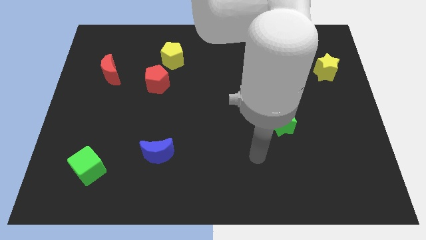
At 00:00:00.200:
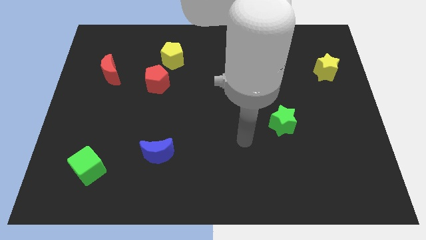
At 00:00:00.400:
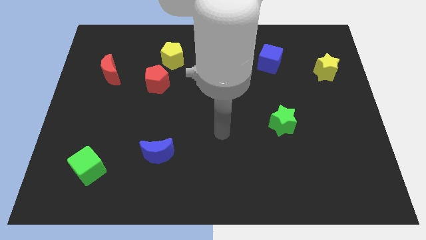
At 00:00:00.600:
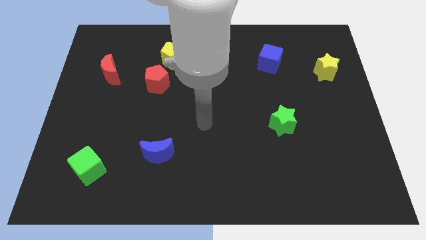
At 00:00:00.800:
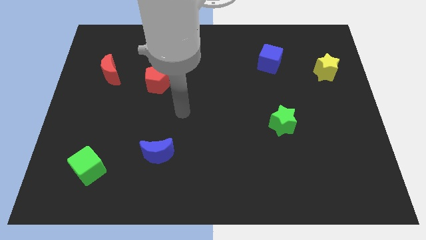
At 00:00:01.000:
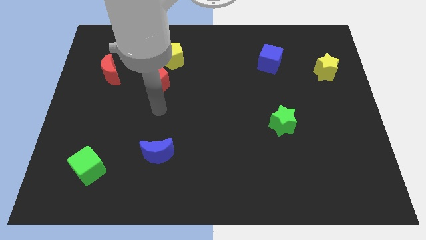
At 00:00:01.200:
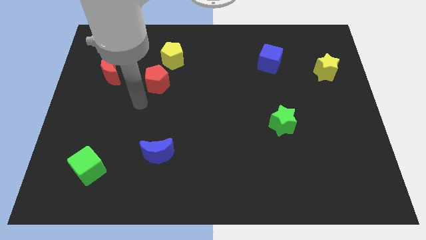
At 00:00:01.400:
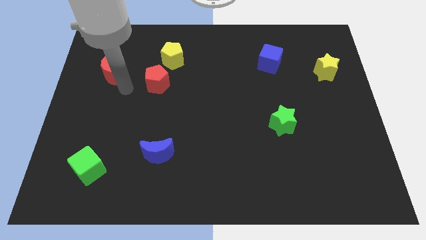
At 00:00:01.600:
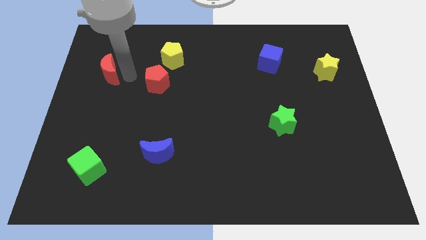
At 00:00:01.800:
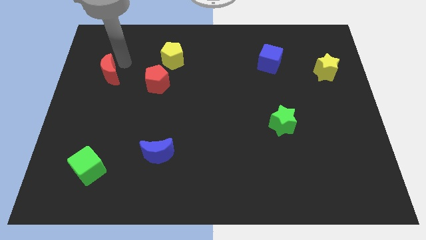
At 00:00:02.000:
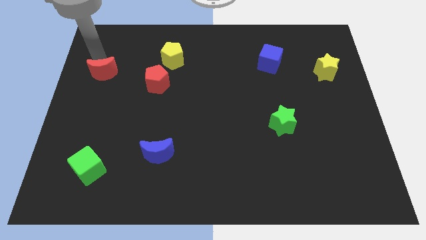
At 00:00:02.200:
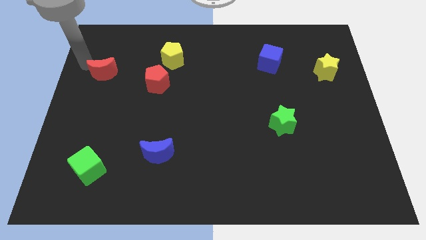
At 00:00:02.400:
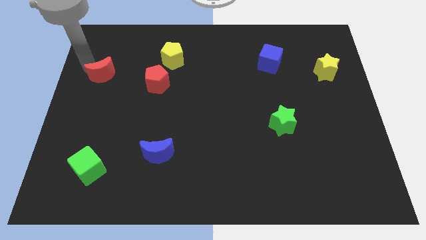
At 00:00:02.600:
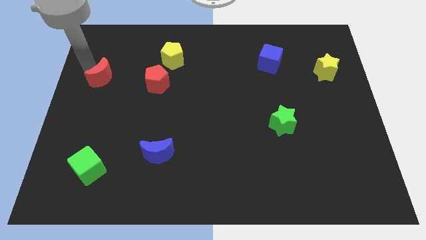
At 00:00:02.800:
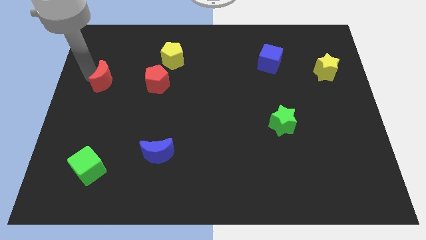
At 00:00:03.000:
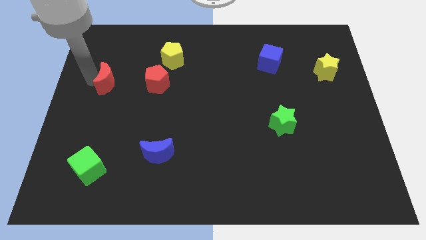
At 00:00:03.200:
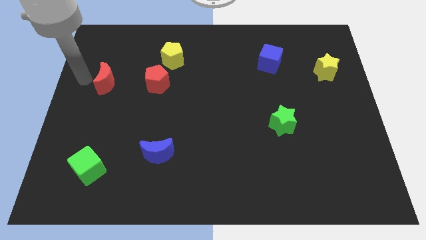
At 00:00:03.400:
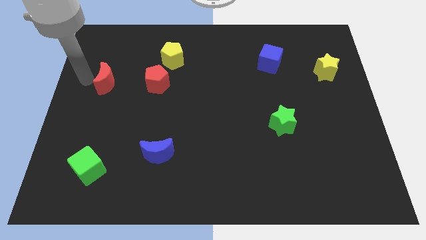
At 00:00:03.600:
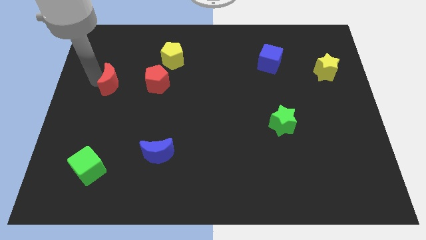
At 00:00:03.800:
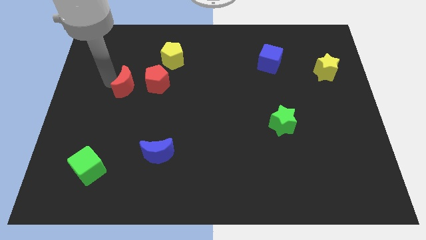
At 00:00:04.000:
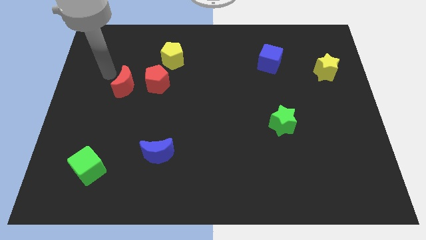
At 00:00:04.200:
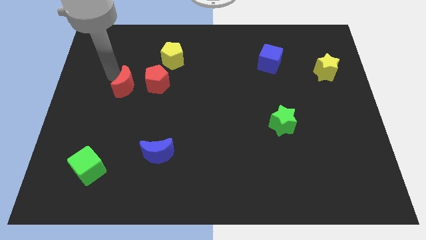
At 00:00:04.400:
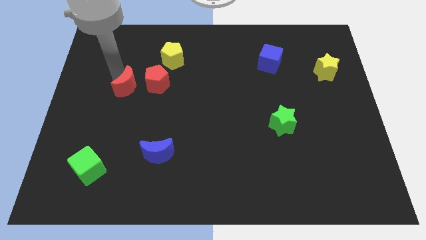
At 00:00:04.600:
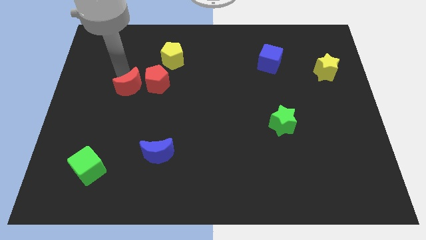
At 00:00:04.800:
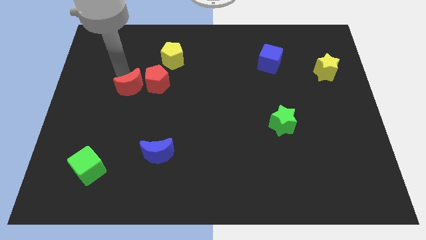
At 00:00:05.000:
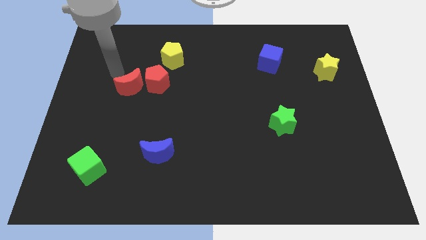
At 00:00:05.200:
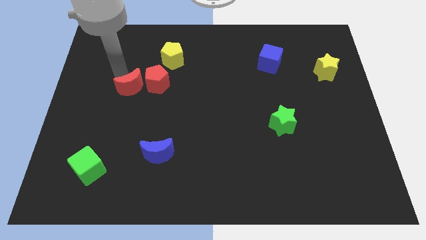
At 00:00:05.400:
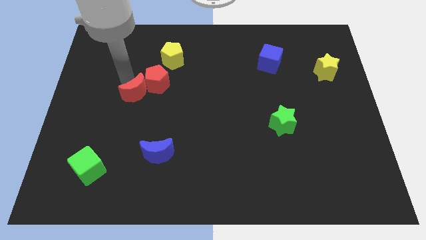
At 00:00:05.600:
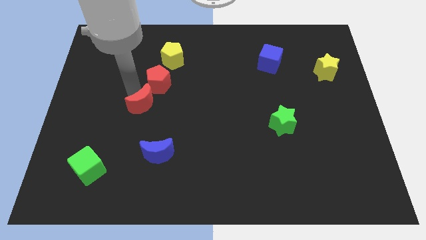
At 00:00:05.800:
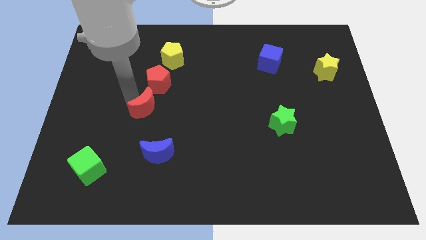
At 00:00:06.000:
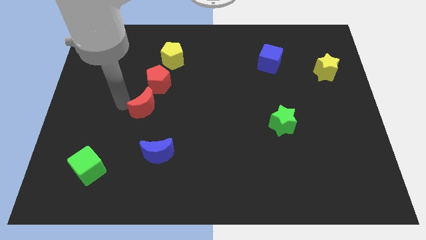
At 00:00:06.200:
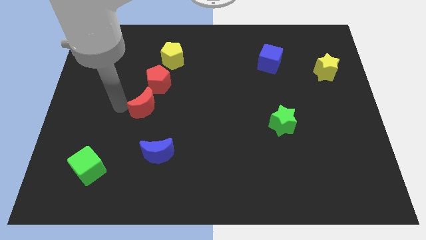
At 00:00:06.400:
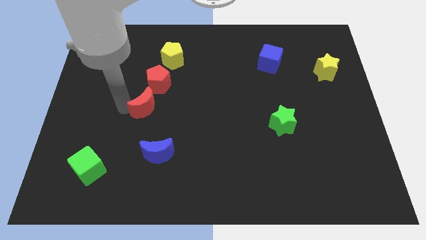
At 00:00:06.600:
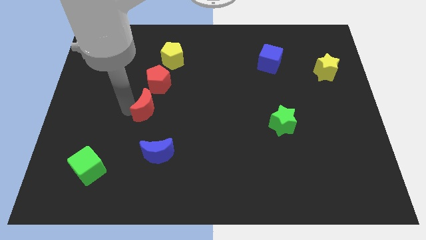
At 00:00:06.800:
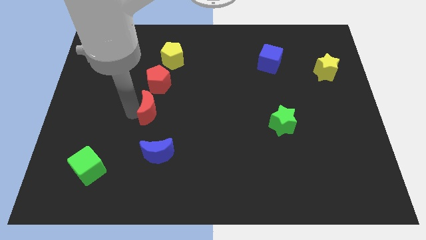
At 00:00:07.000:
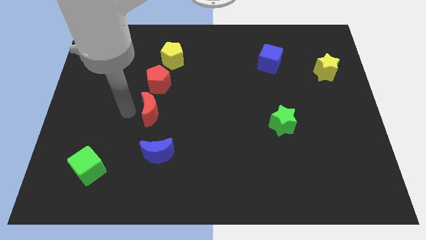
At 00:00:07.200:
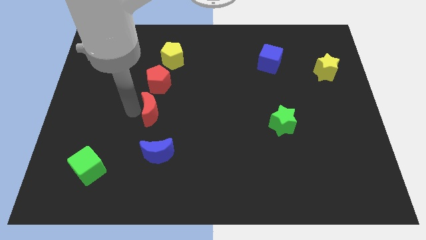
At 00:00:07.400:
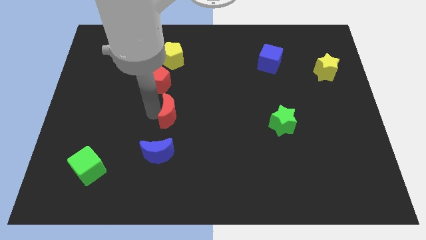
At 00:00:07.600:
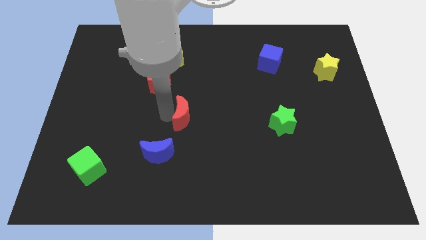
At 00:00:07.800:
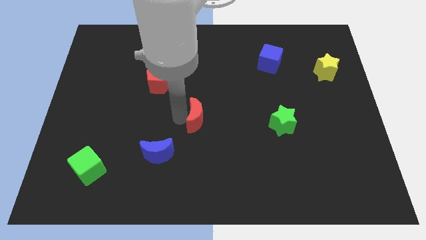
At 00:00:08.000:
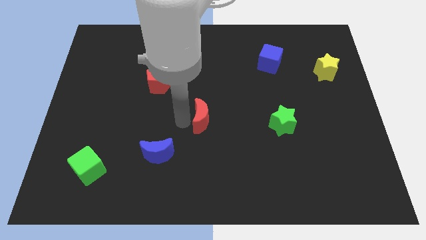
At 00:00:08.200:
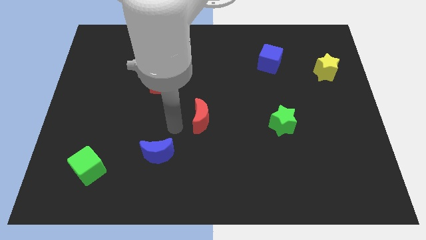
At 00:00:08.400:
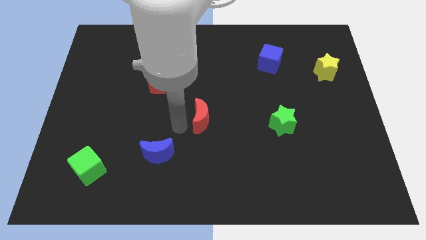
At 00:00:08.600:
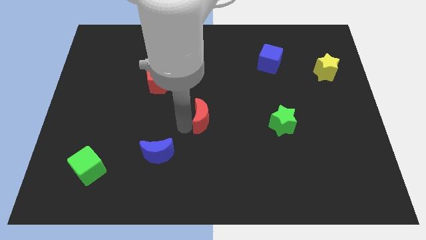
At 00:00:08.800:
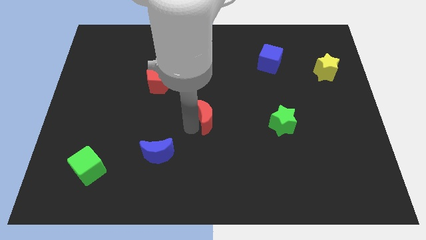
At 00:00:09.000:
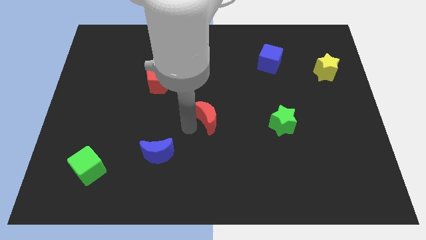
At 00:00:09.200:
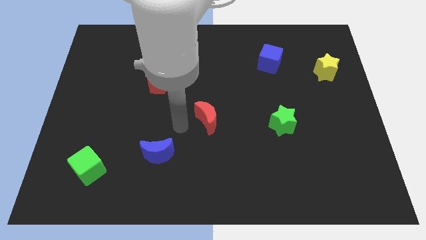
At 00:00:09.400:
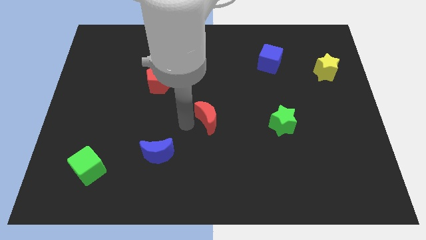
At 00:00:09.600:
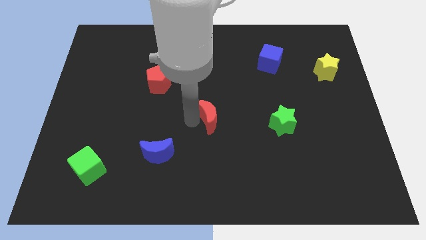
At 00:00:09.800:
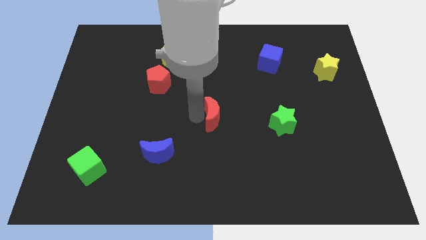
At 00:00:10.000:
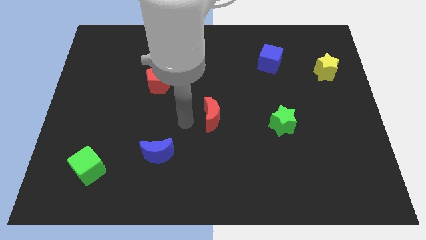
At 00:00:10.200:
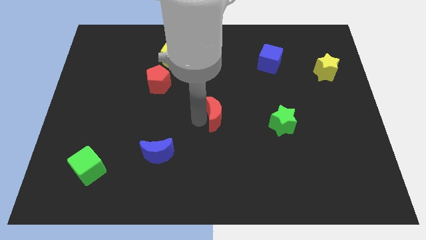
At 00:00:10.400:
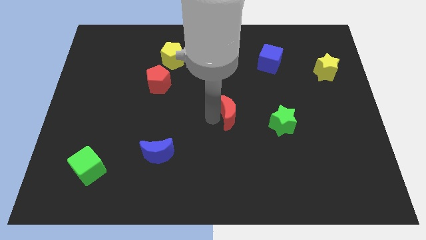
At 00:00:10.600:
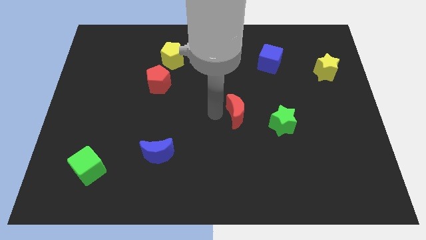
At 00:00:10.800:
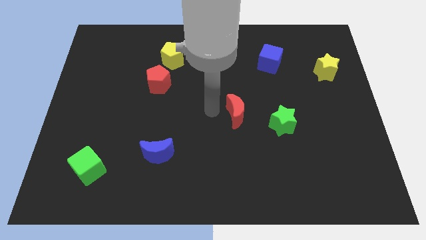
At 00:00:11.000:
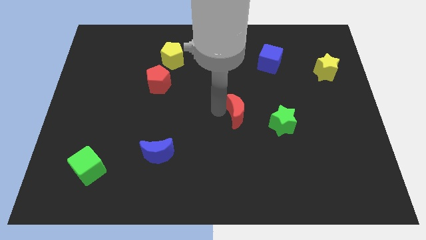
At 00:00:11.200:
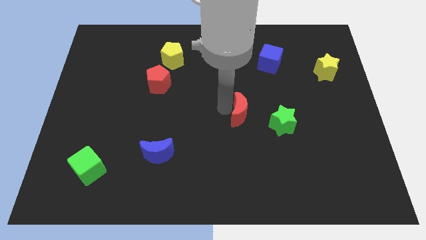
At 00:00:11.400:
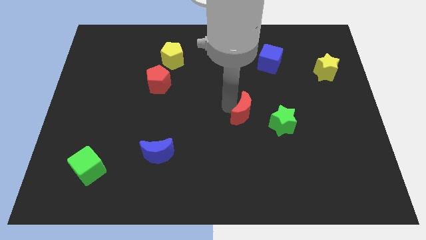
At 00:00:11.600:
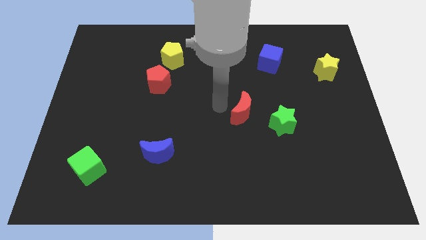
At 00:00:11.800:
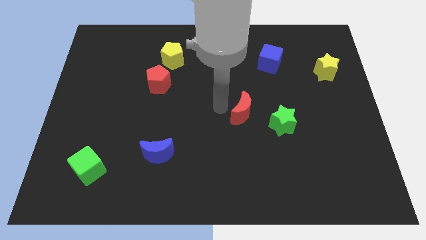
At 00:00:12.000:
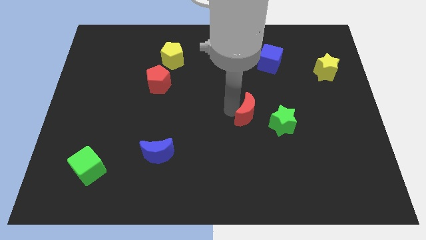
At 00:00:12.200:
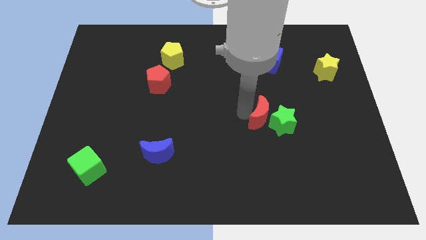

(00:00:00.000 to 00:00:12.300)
slide the red moon next to the green star

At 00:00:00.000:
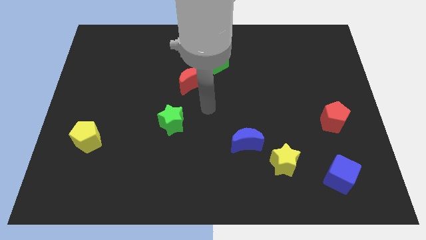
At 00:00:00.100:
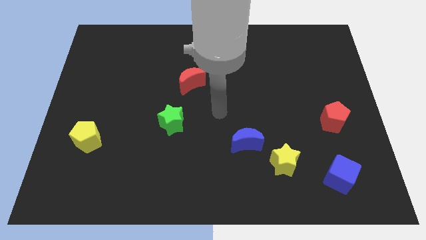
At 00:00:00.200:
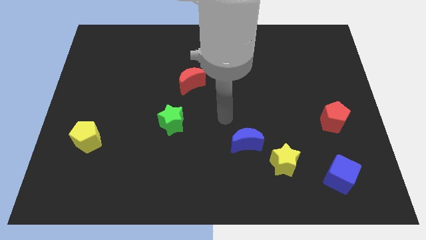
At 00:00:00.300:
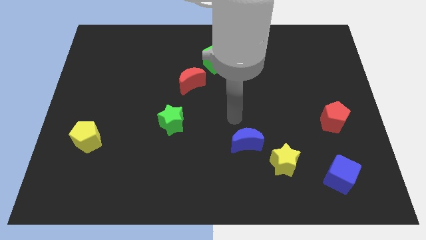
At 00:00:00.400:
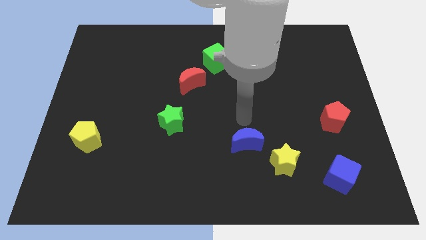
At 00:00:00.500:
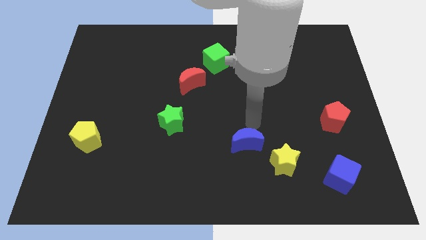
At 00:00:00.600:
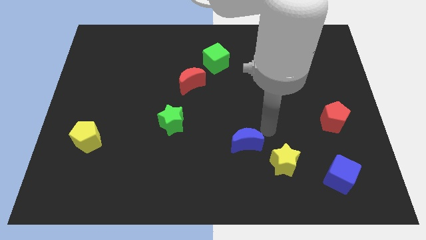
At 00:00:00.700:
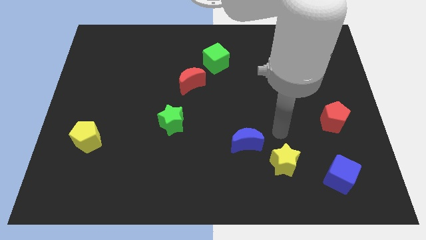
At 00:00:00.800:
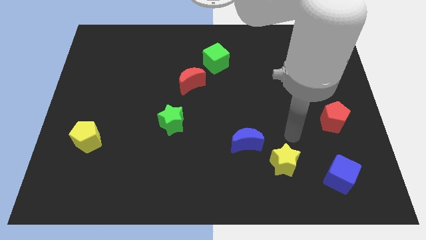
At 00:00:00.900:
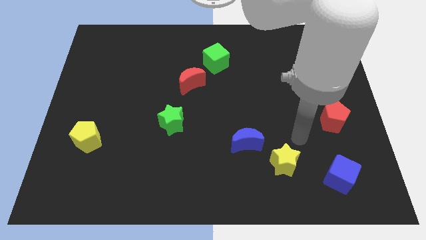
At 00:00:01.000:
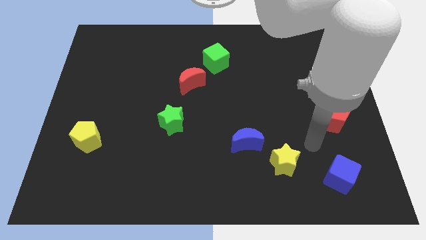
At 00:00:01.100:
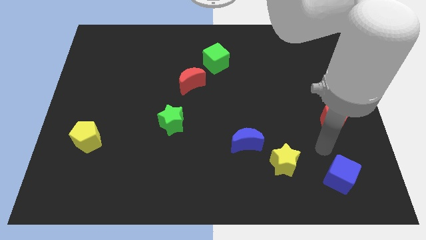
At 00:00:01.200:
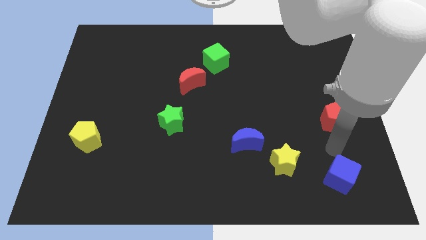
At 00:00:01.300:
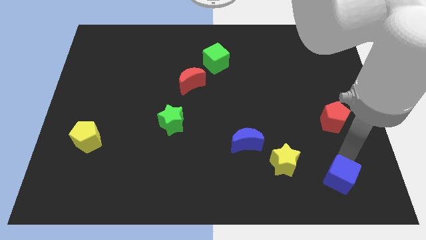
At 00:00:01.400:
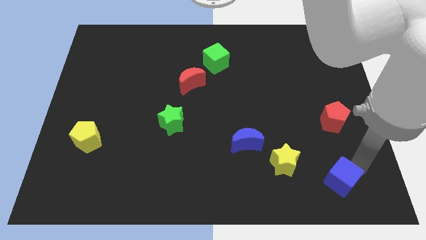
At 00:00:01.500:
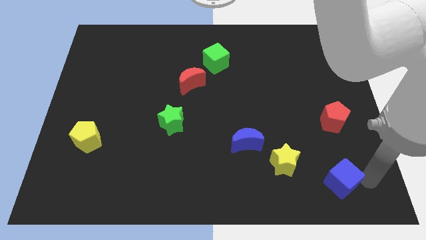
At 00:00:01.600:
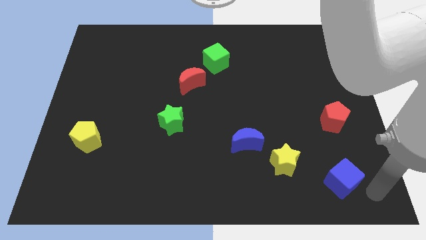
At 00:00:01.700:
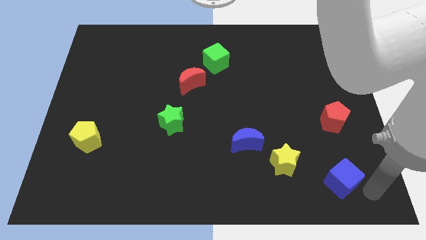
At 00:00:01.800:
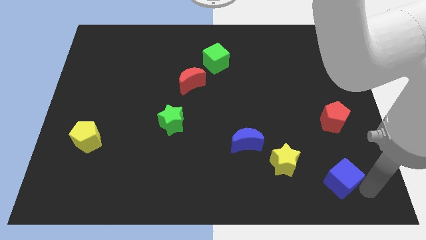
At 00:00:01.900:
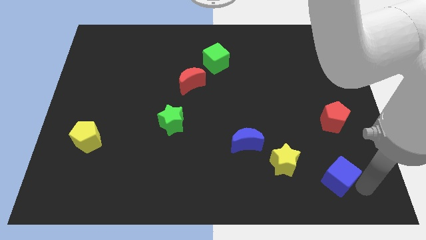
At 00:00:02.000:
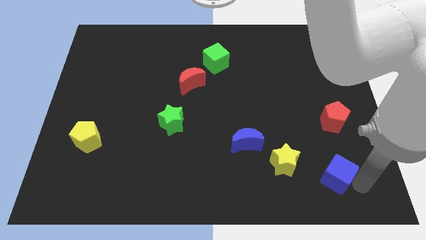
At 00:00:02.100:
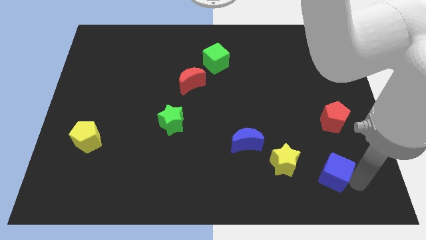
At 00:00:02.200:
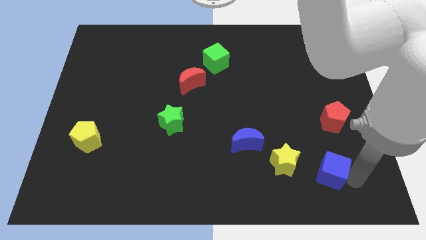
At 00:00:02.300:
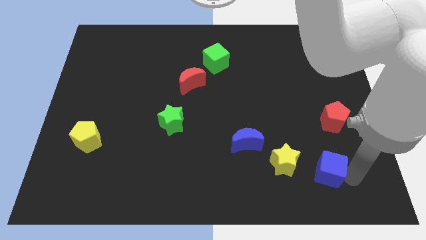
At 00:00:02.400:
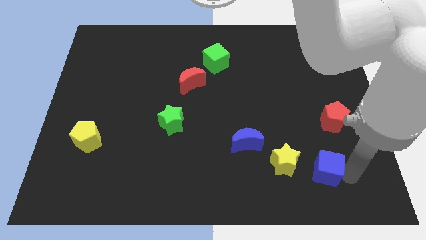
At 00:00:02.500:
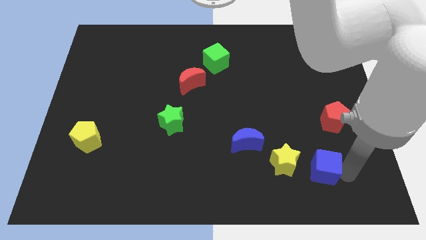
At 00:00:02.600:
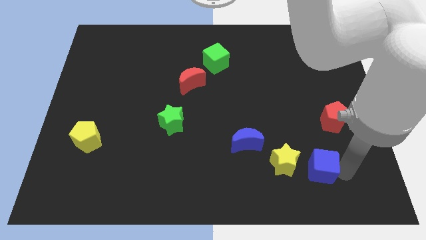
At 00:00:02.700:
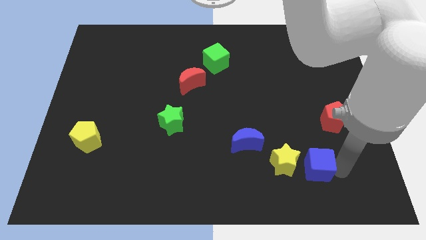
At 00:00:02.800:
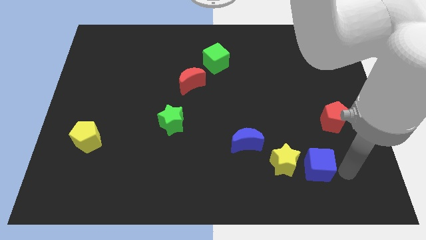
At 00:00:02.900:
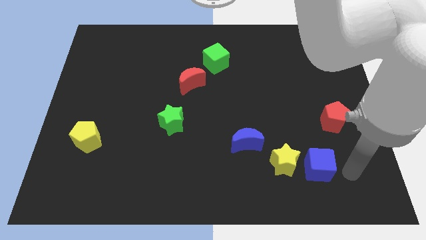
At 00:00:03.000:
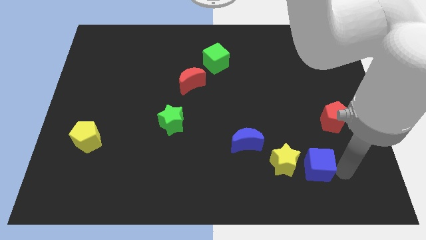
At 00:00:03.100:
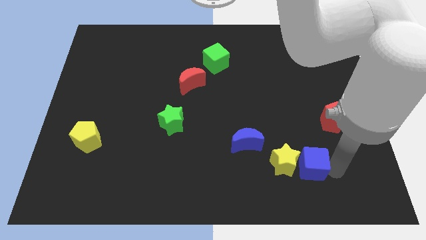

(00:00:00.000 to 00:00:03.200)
slide the blue cube to the yellow star
